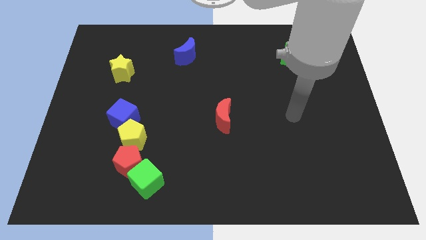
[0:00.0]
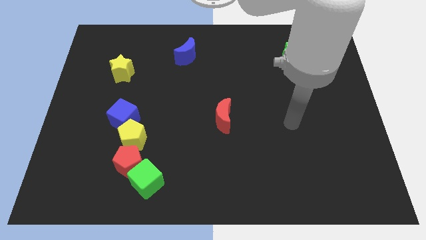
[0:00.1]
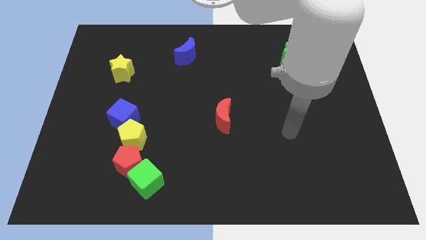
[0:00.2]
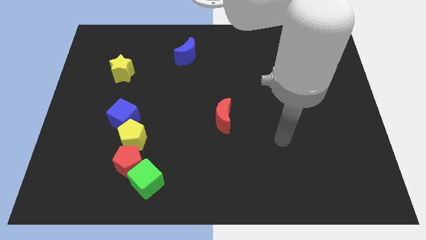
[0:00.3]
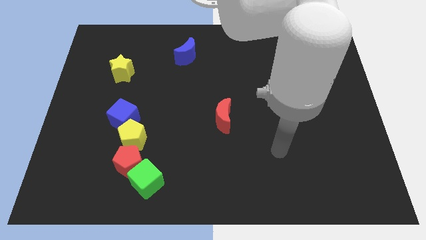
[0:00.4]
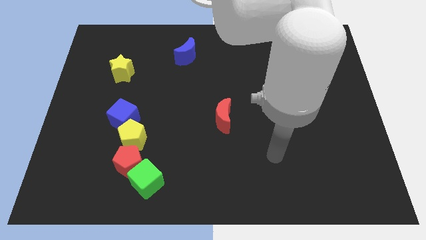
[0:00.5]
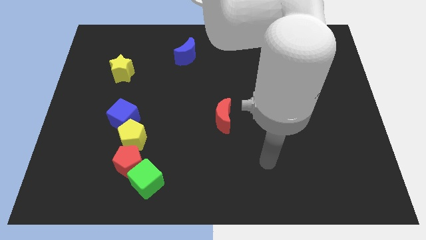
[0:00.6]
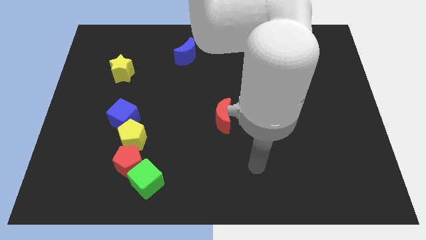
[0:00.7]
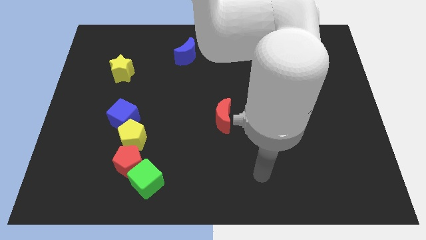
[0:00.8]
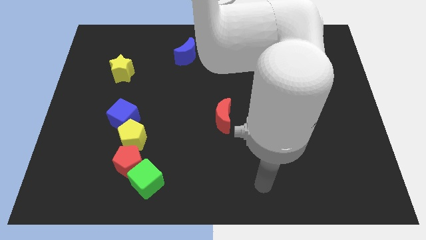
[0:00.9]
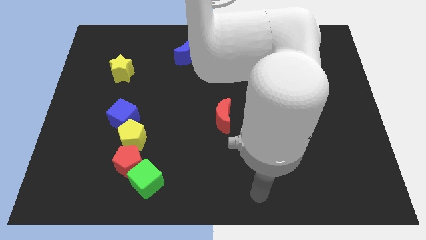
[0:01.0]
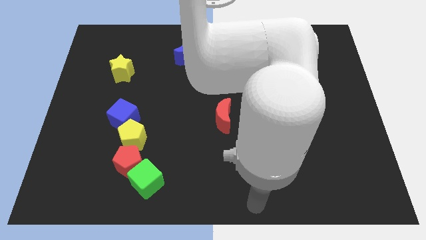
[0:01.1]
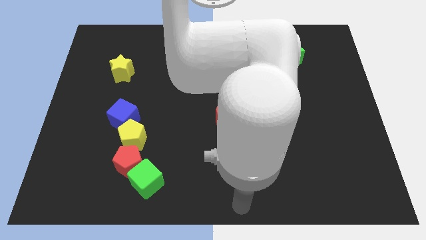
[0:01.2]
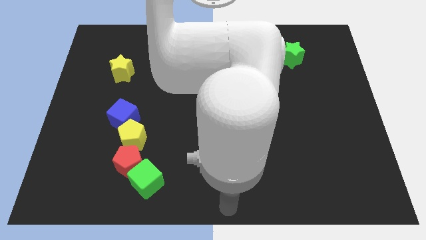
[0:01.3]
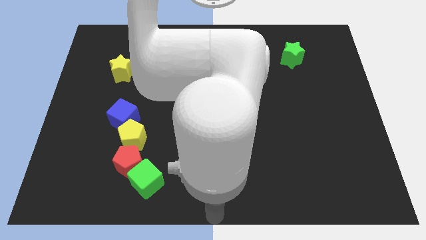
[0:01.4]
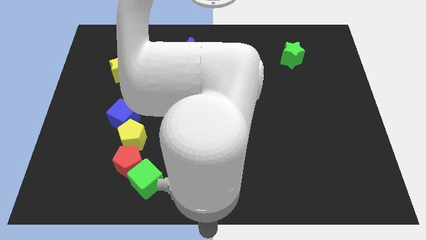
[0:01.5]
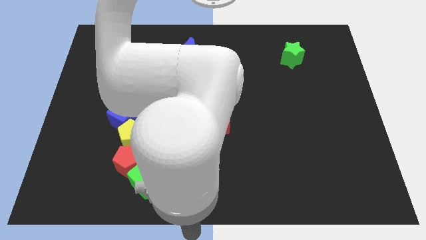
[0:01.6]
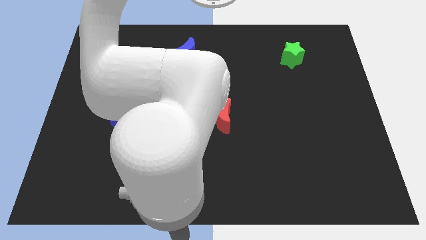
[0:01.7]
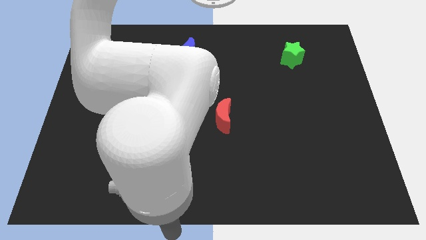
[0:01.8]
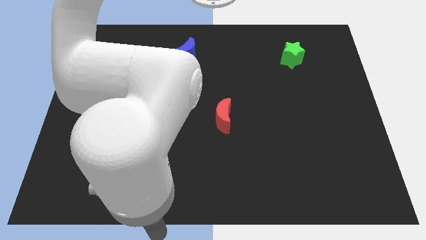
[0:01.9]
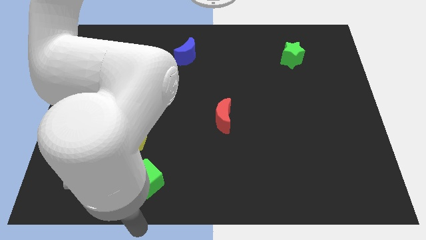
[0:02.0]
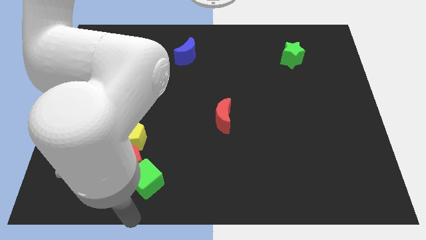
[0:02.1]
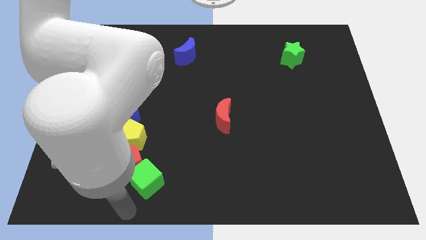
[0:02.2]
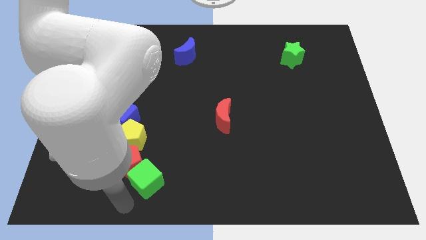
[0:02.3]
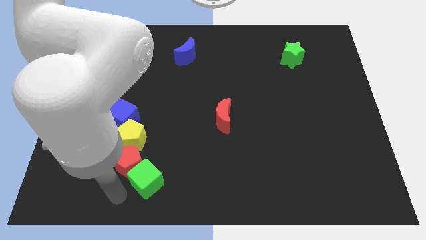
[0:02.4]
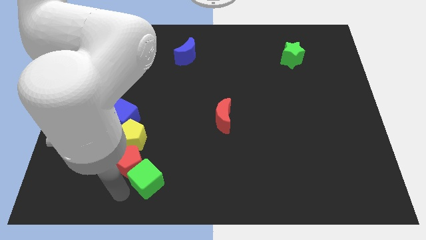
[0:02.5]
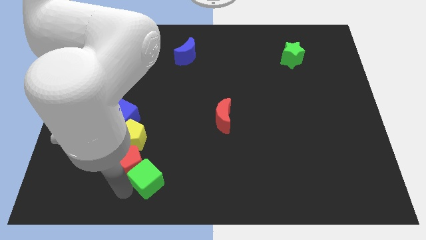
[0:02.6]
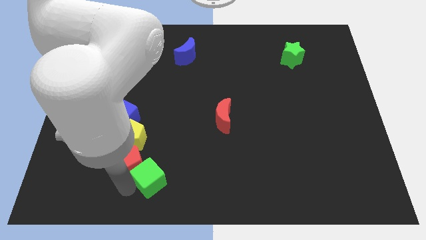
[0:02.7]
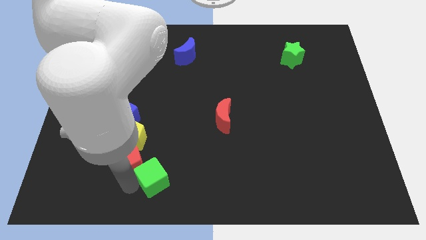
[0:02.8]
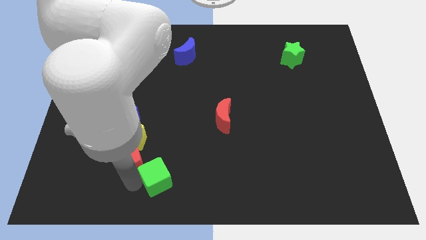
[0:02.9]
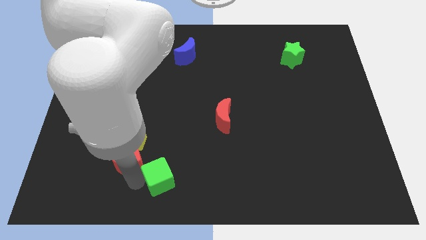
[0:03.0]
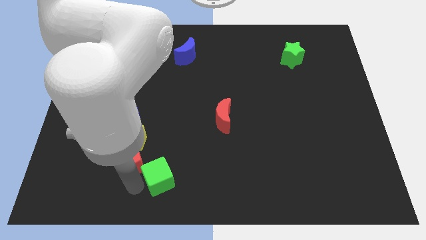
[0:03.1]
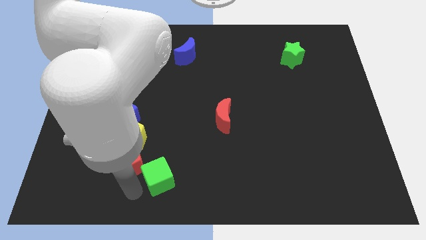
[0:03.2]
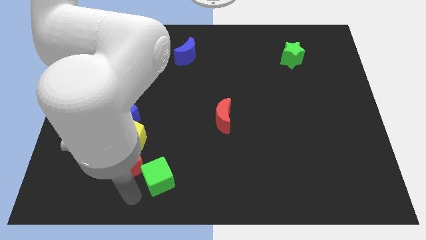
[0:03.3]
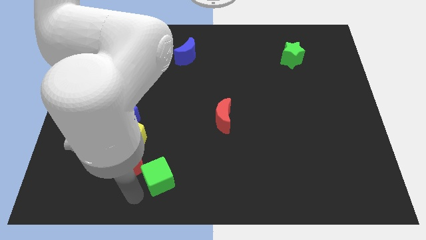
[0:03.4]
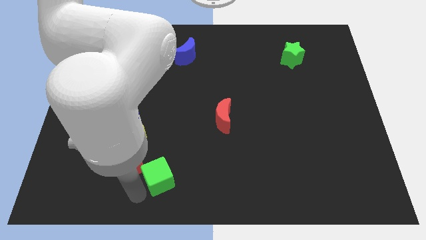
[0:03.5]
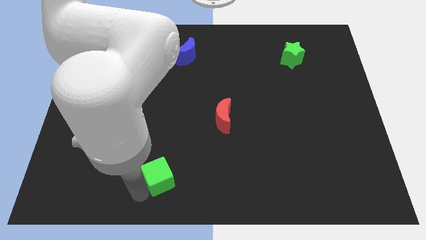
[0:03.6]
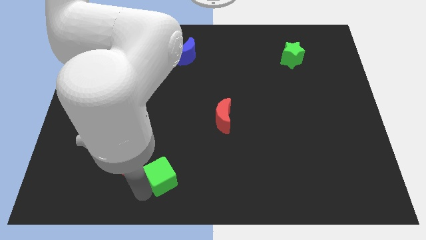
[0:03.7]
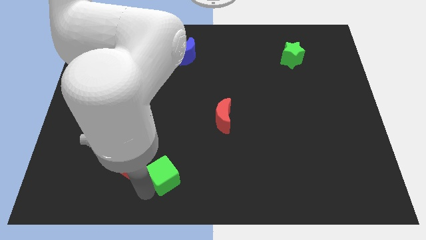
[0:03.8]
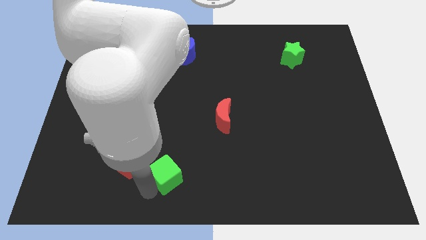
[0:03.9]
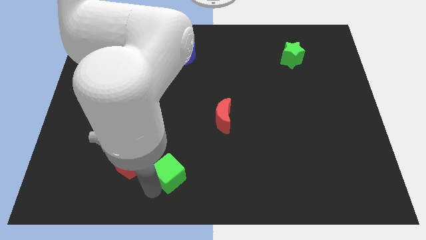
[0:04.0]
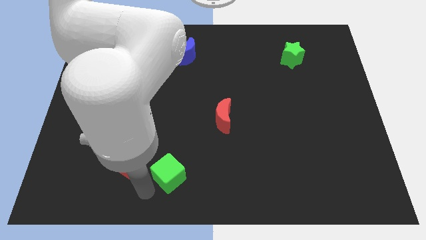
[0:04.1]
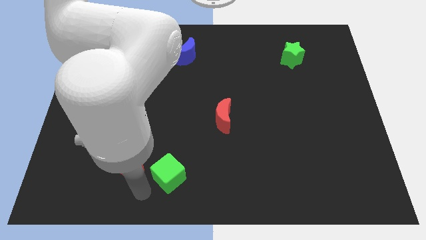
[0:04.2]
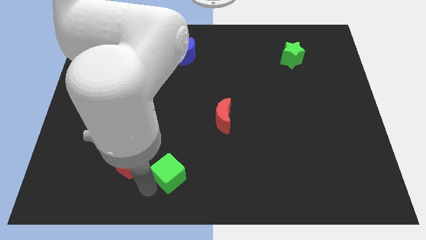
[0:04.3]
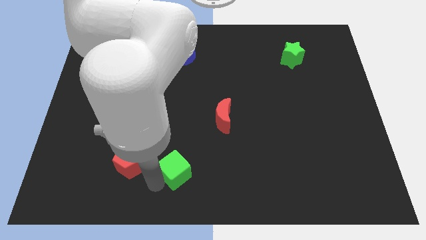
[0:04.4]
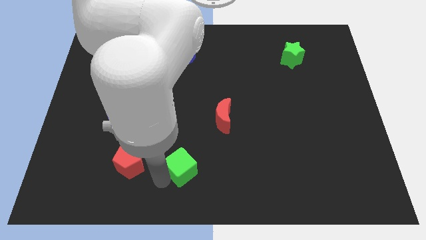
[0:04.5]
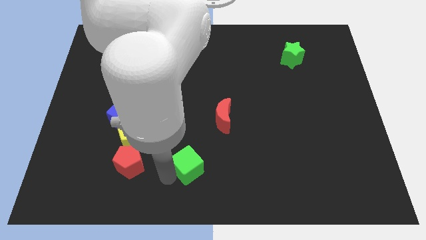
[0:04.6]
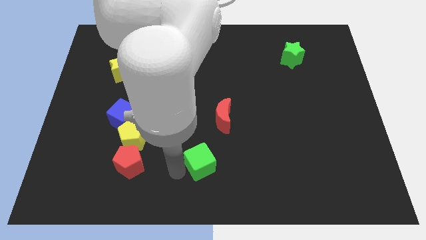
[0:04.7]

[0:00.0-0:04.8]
move the green cube below the red moon

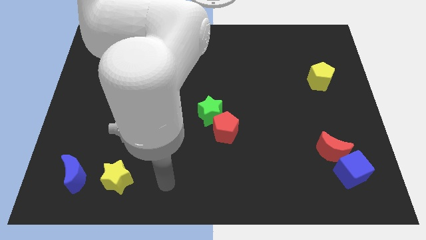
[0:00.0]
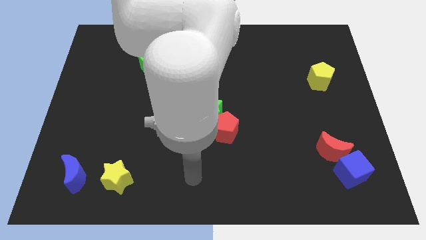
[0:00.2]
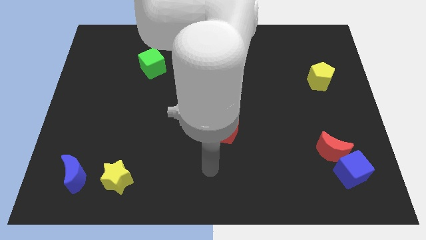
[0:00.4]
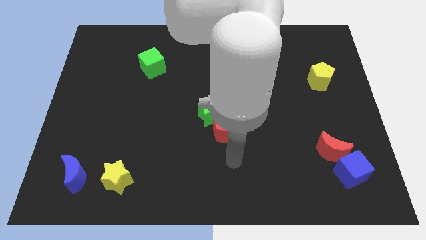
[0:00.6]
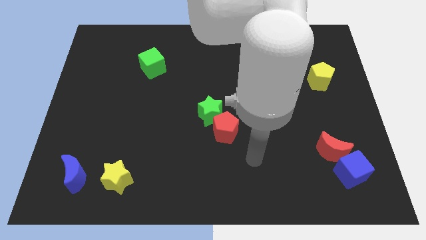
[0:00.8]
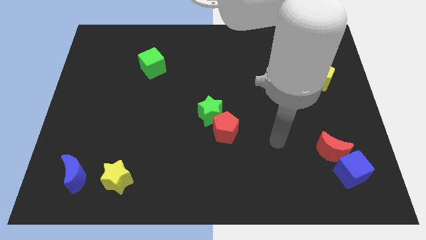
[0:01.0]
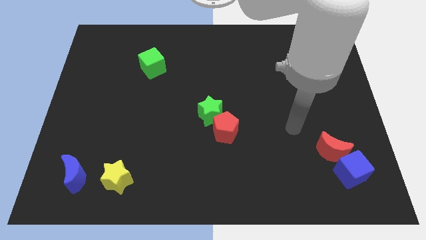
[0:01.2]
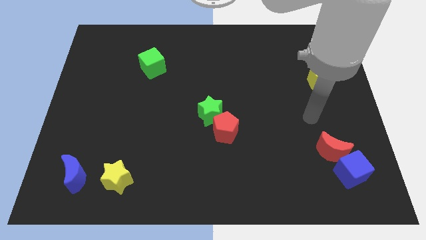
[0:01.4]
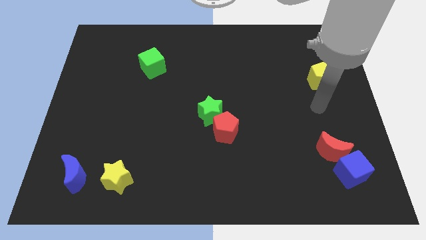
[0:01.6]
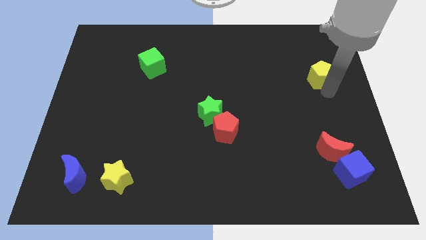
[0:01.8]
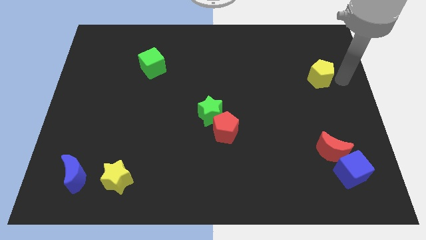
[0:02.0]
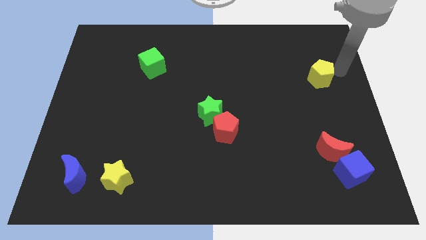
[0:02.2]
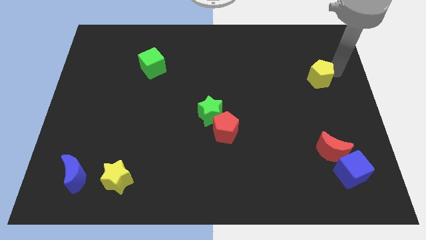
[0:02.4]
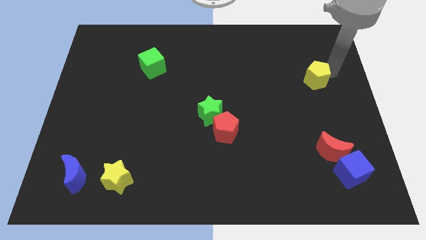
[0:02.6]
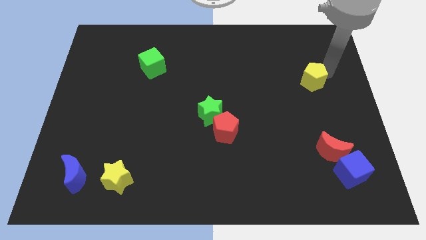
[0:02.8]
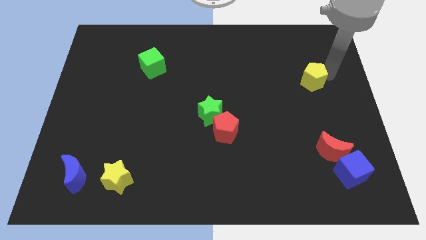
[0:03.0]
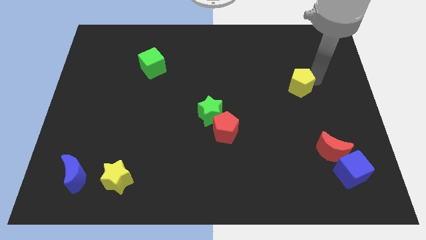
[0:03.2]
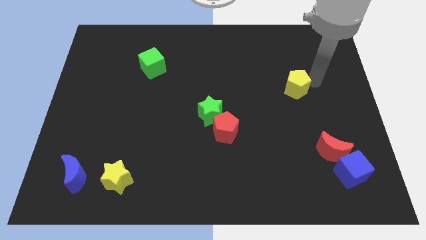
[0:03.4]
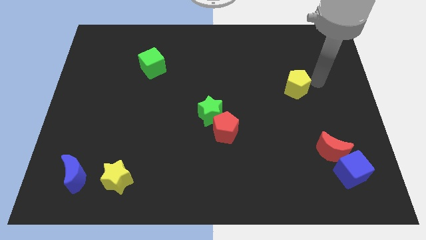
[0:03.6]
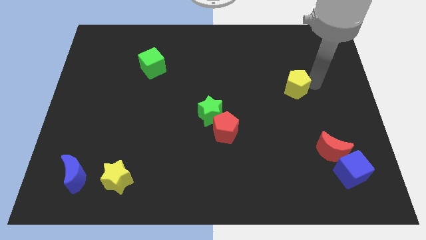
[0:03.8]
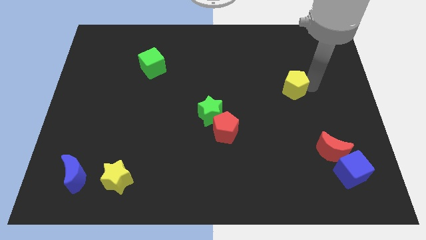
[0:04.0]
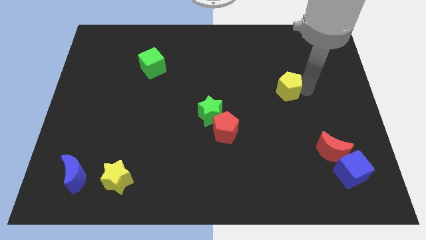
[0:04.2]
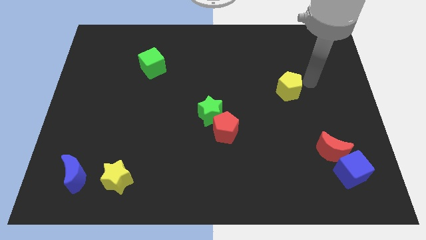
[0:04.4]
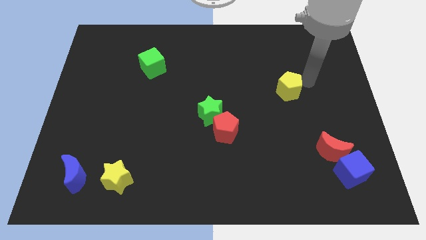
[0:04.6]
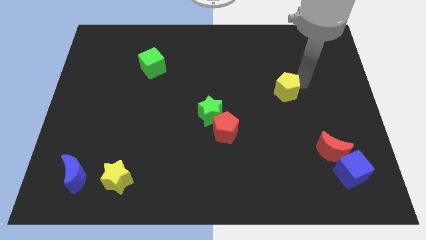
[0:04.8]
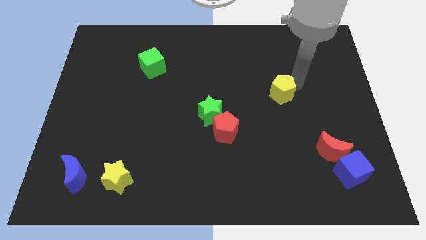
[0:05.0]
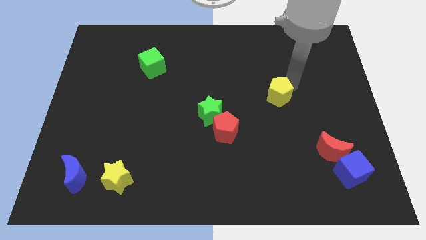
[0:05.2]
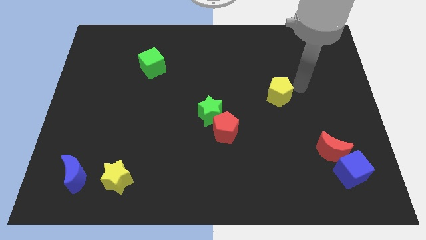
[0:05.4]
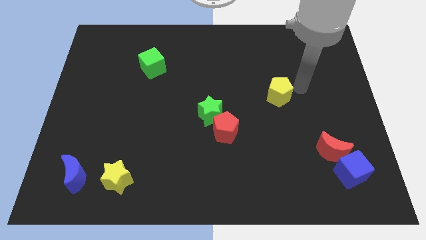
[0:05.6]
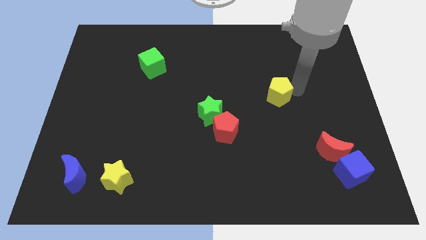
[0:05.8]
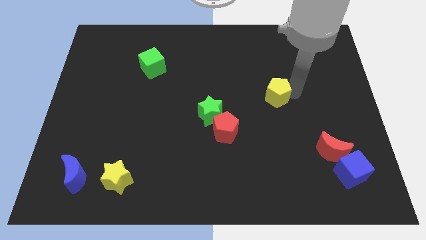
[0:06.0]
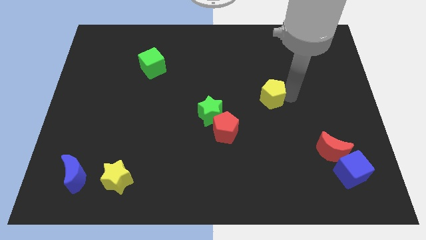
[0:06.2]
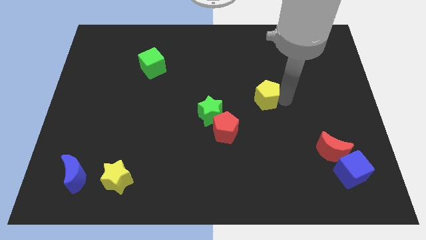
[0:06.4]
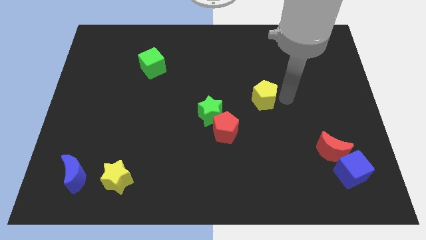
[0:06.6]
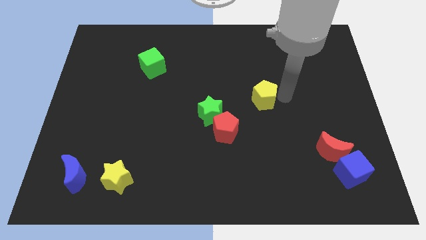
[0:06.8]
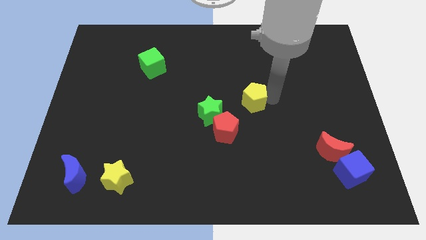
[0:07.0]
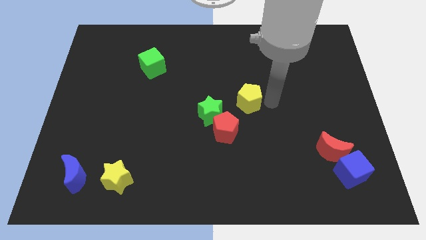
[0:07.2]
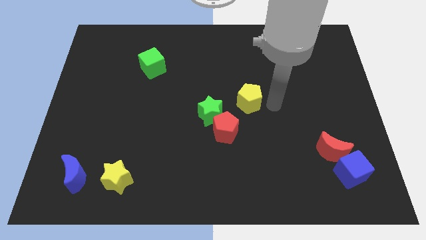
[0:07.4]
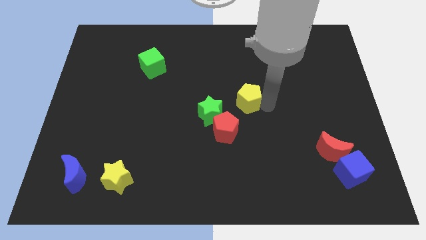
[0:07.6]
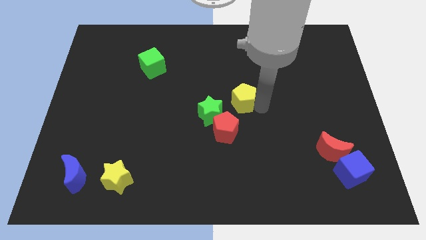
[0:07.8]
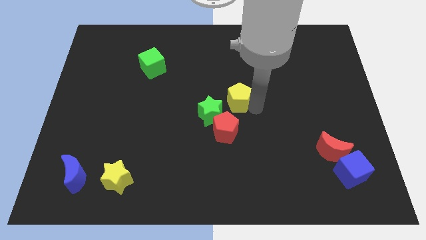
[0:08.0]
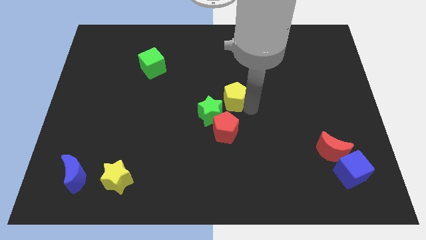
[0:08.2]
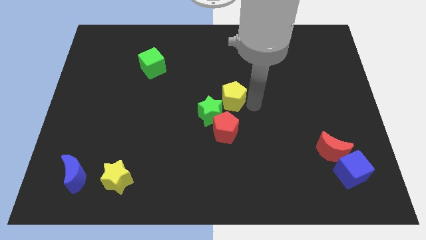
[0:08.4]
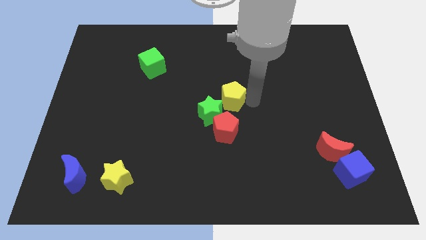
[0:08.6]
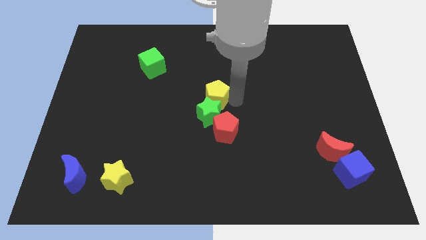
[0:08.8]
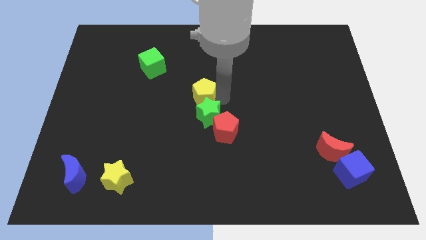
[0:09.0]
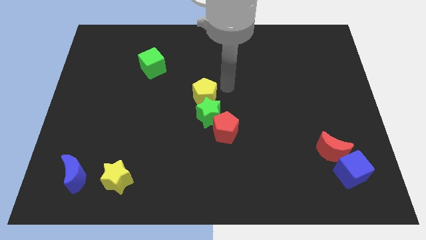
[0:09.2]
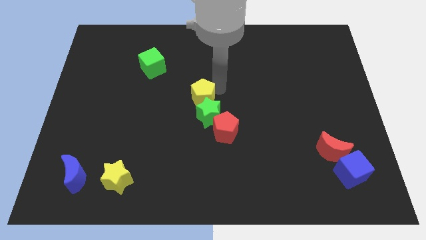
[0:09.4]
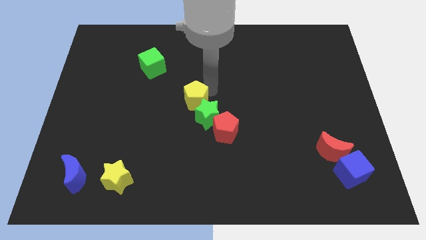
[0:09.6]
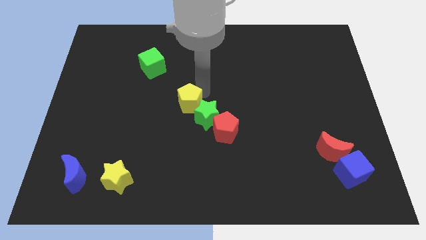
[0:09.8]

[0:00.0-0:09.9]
push the yellow pentagon just left of the green star
